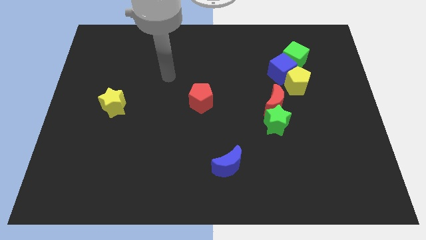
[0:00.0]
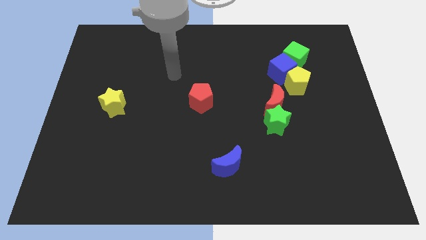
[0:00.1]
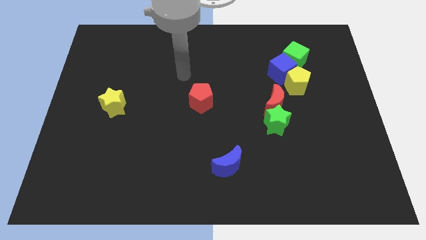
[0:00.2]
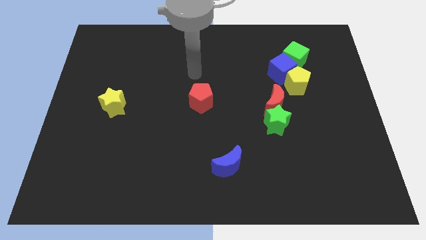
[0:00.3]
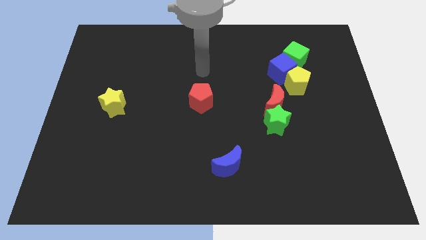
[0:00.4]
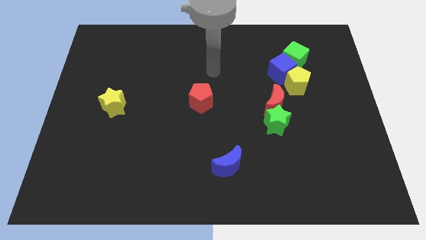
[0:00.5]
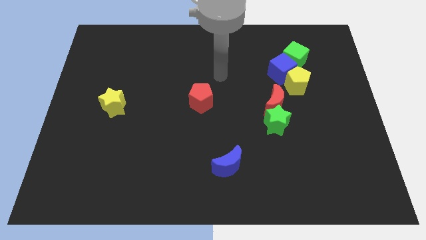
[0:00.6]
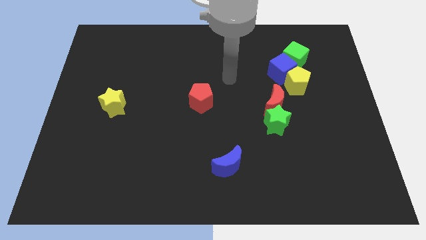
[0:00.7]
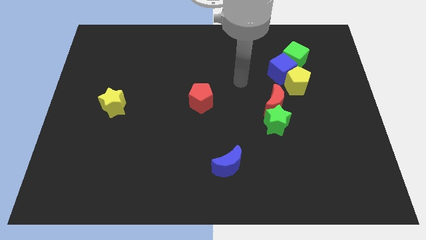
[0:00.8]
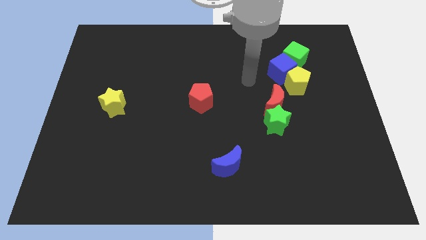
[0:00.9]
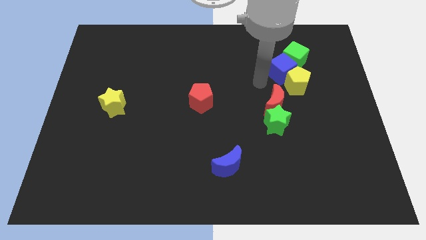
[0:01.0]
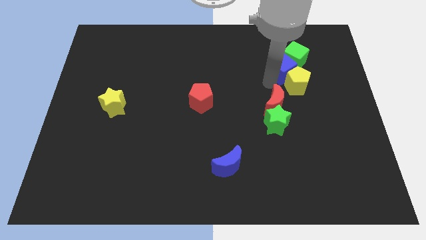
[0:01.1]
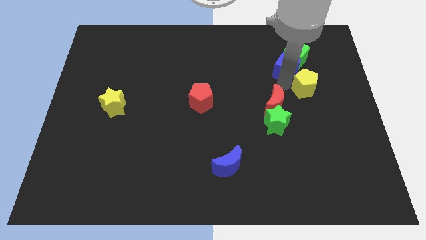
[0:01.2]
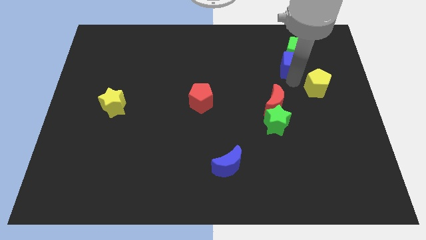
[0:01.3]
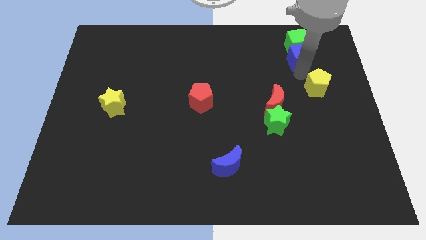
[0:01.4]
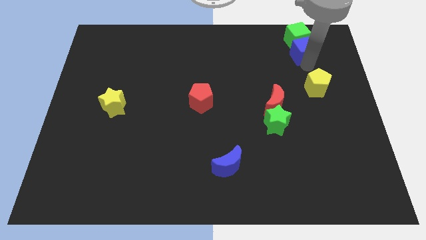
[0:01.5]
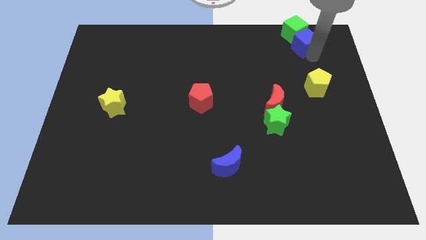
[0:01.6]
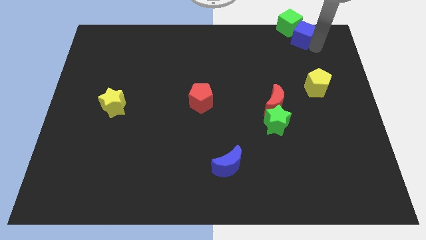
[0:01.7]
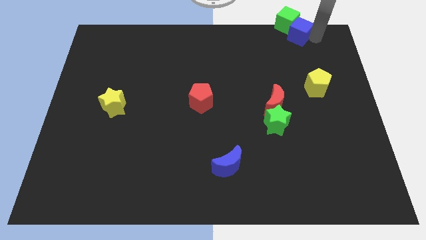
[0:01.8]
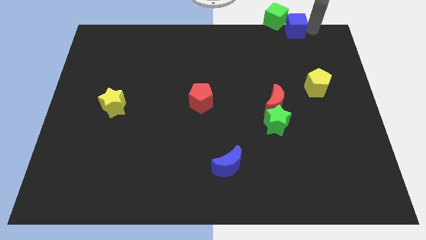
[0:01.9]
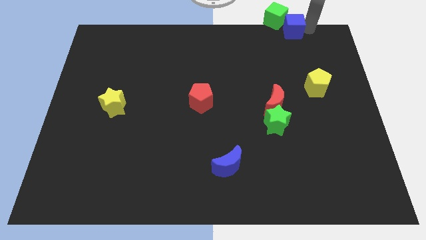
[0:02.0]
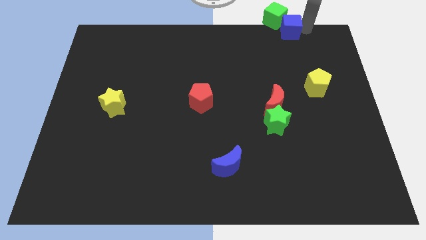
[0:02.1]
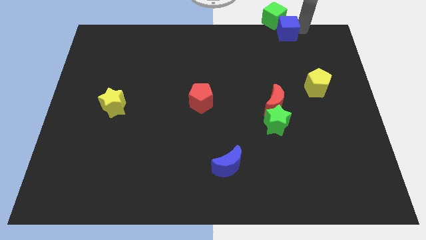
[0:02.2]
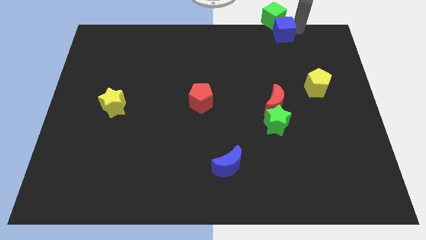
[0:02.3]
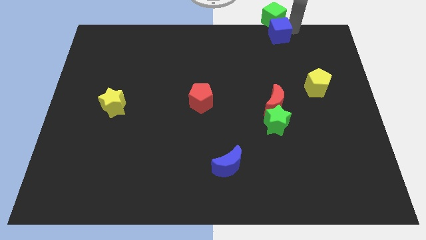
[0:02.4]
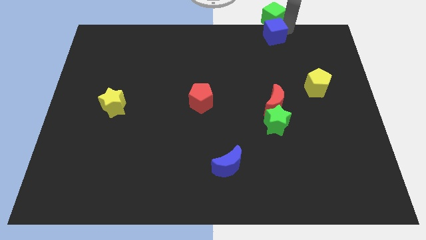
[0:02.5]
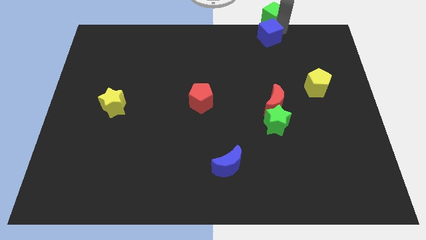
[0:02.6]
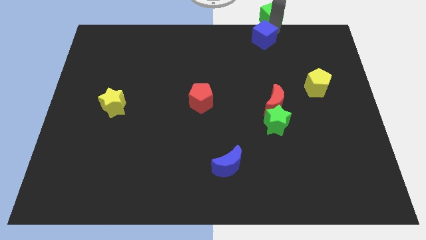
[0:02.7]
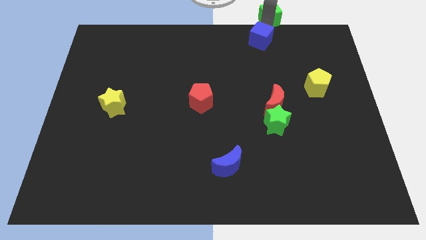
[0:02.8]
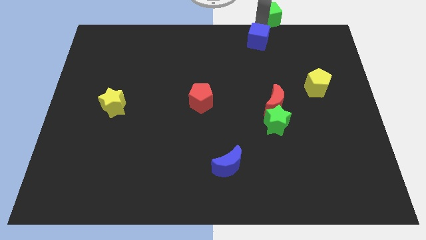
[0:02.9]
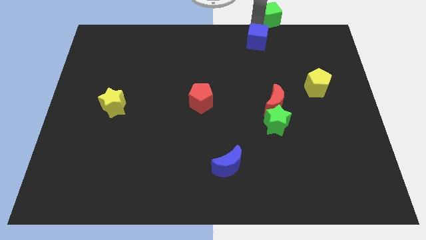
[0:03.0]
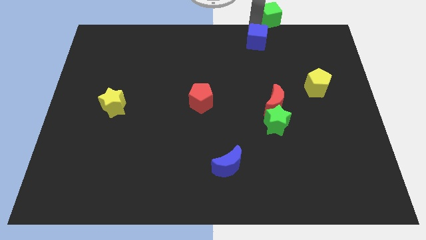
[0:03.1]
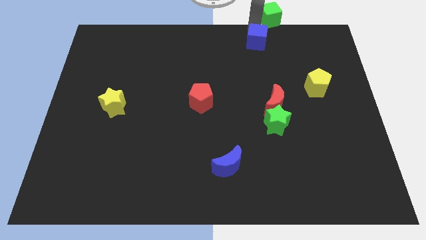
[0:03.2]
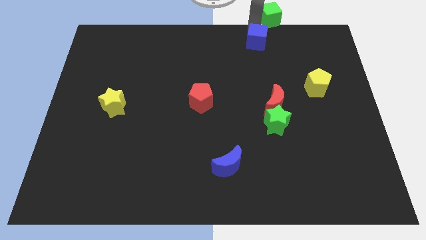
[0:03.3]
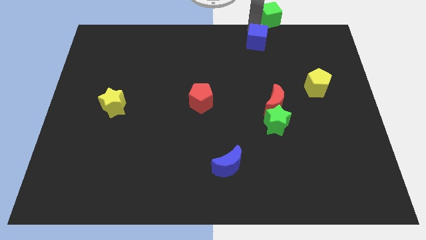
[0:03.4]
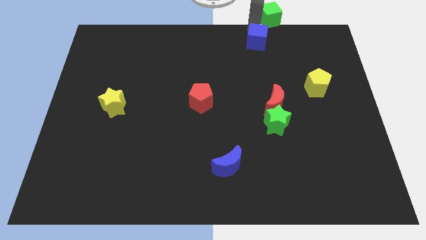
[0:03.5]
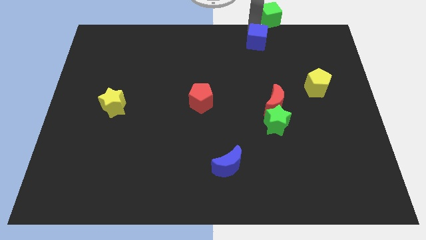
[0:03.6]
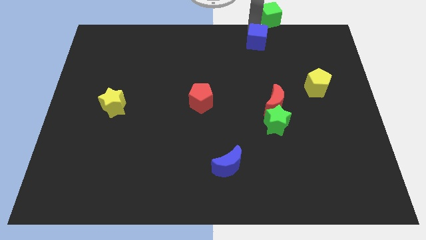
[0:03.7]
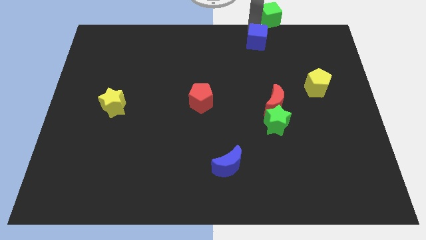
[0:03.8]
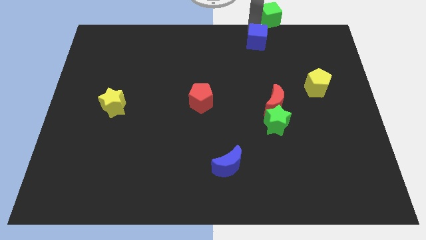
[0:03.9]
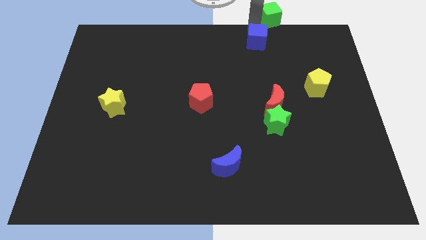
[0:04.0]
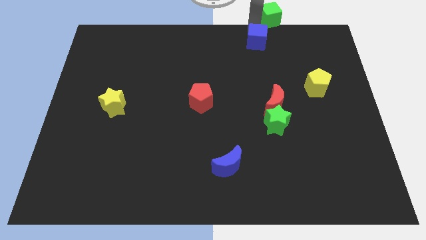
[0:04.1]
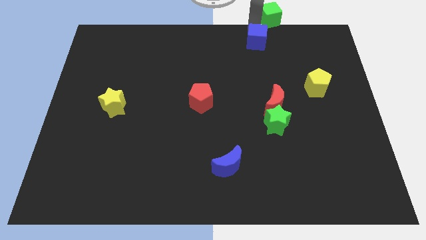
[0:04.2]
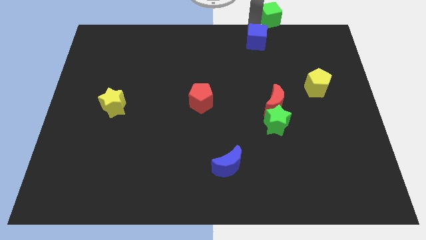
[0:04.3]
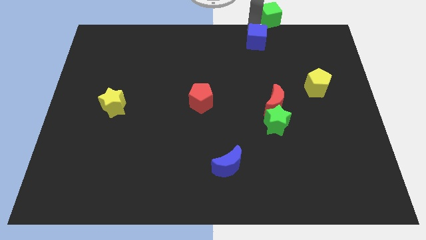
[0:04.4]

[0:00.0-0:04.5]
separate the blue cube from the yellow pentagon and green cube

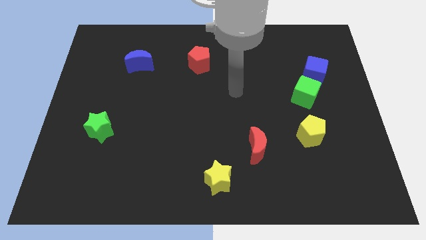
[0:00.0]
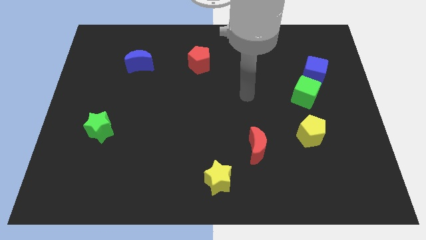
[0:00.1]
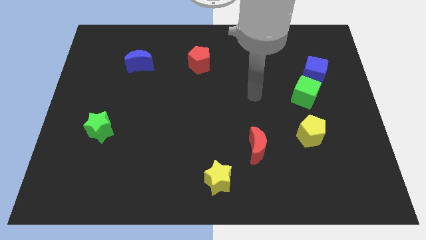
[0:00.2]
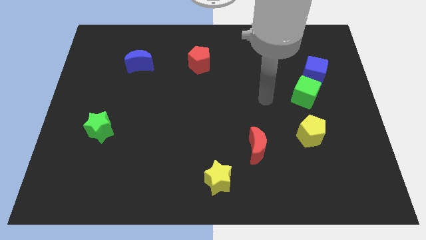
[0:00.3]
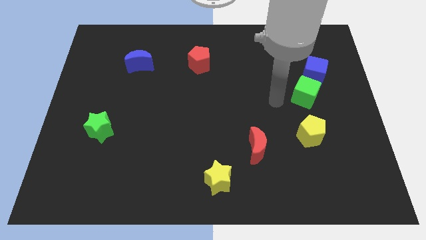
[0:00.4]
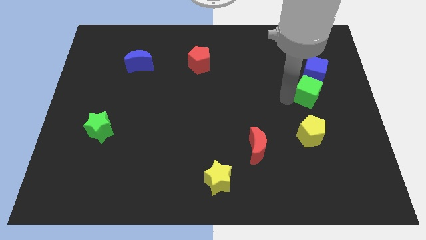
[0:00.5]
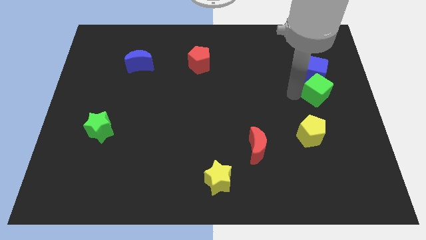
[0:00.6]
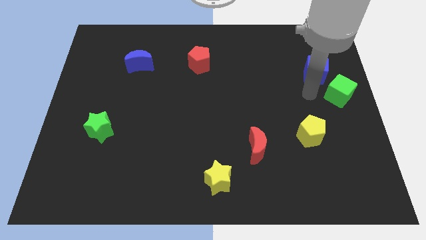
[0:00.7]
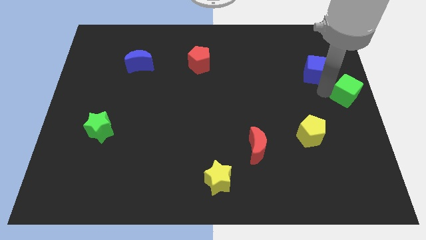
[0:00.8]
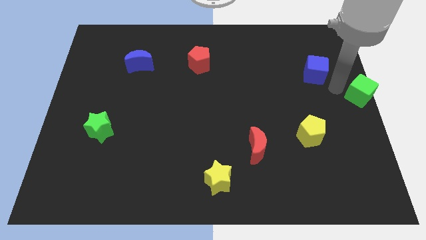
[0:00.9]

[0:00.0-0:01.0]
separate the blue cube from the green cube

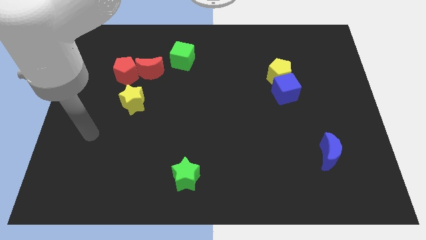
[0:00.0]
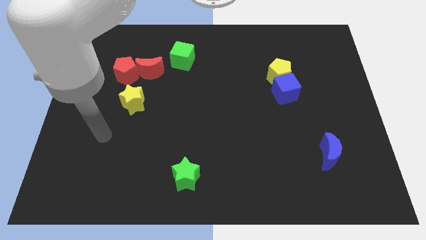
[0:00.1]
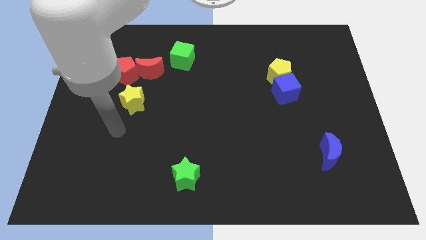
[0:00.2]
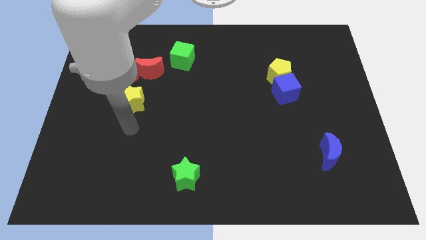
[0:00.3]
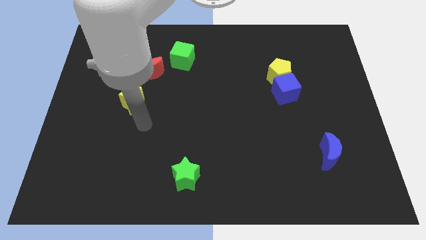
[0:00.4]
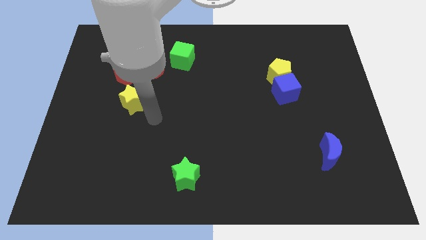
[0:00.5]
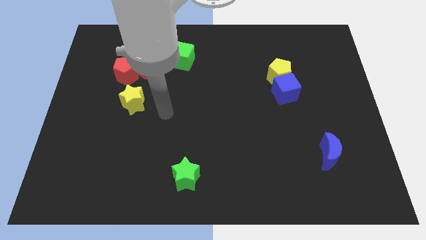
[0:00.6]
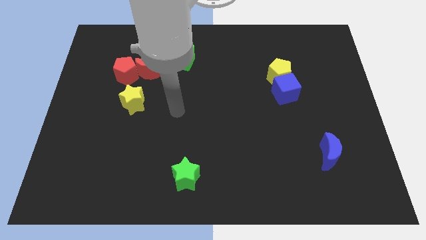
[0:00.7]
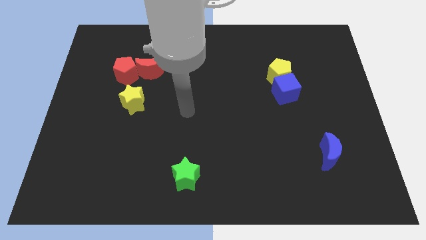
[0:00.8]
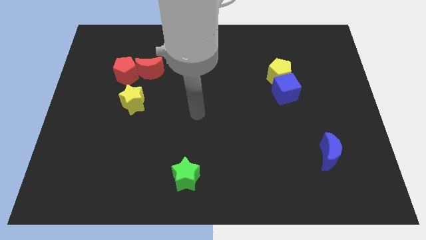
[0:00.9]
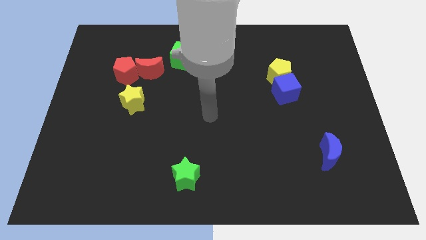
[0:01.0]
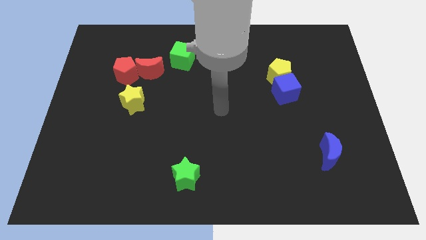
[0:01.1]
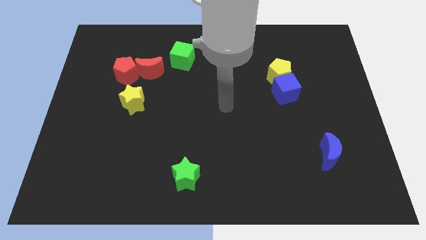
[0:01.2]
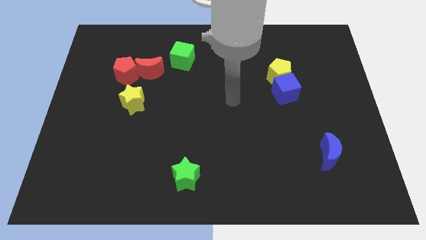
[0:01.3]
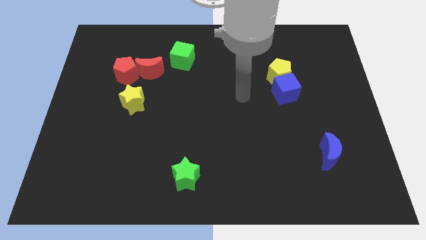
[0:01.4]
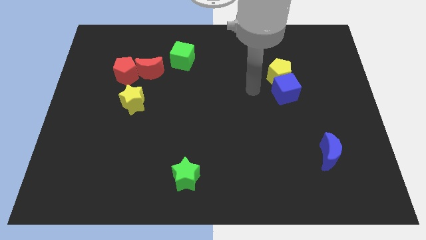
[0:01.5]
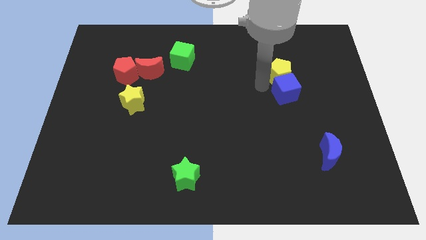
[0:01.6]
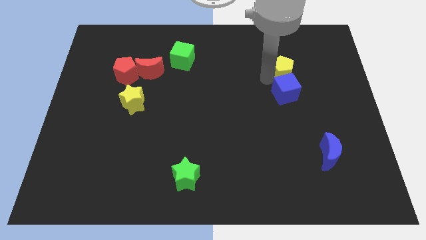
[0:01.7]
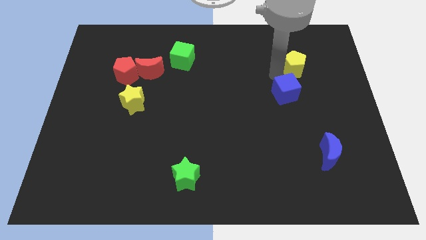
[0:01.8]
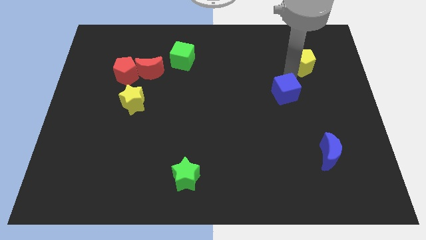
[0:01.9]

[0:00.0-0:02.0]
separate the blue cube from the yellow pentagon

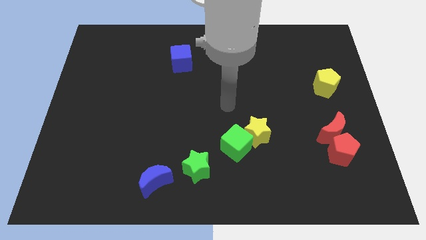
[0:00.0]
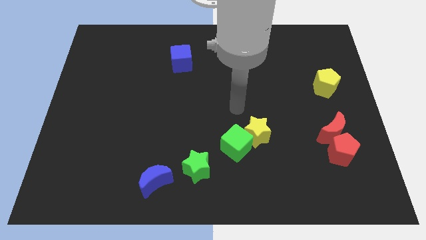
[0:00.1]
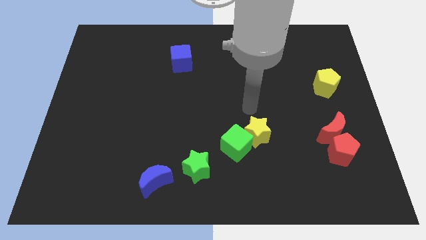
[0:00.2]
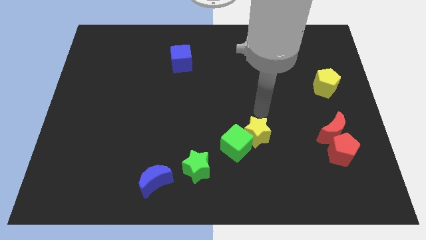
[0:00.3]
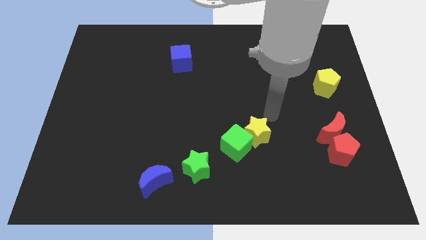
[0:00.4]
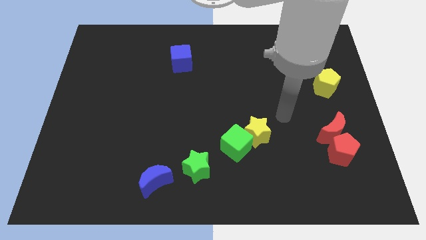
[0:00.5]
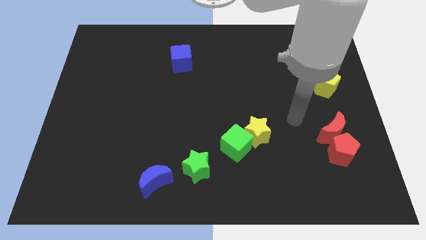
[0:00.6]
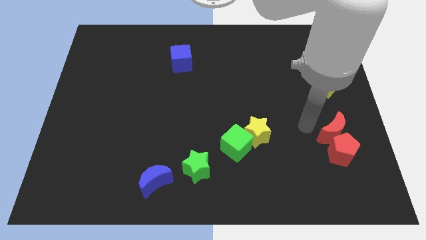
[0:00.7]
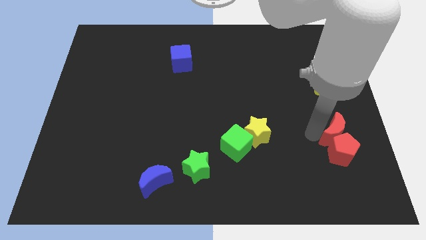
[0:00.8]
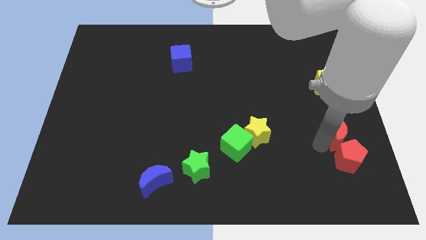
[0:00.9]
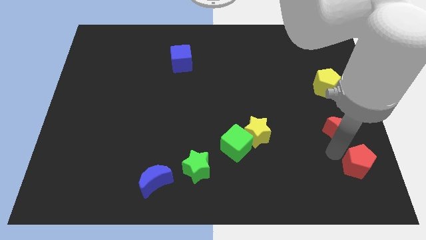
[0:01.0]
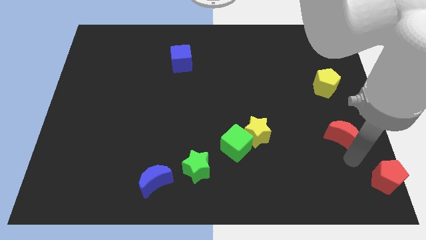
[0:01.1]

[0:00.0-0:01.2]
move the red moon away from the red pentagon

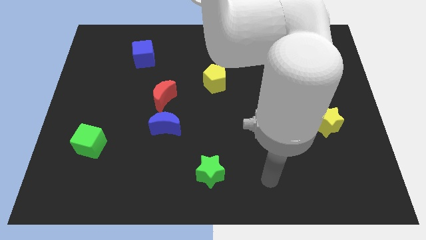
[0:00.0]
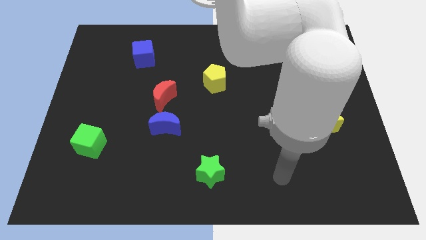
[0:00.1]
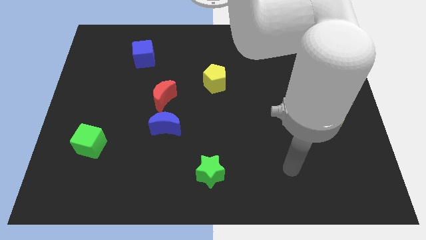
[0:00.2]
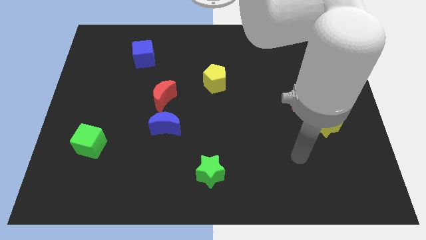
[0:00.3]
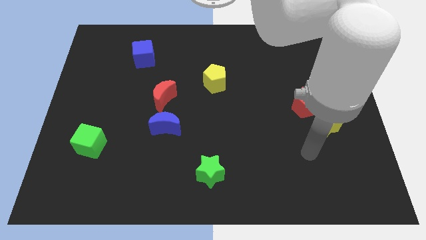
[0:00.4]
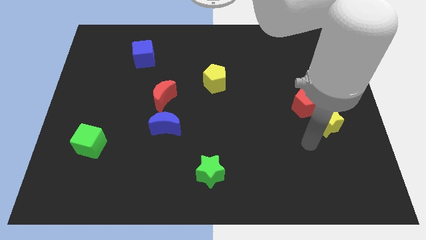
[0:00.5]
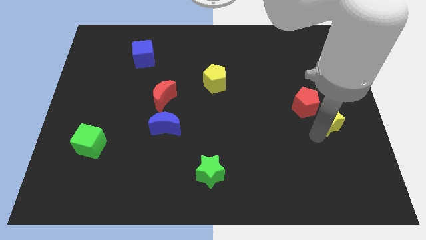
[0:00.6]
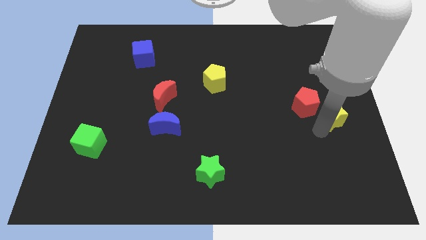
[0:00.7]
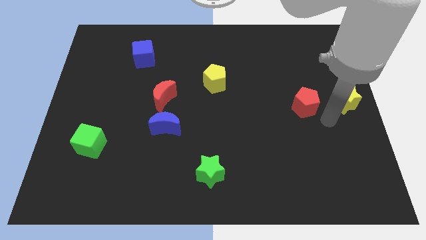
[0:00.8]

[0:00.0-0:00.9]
pull the red pentagon apart from the yellow star
